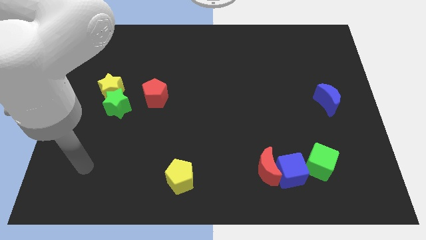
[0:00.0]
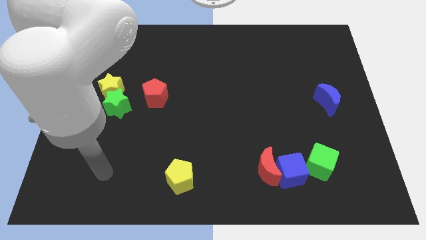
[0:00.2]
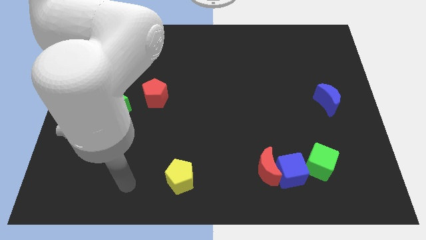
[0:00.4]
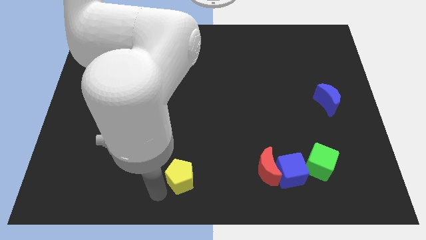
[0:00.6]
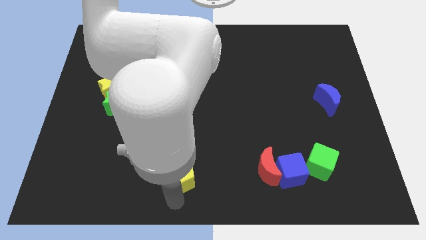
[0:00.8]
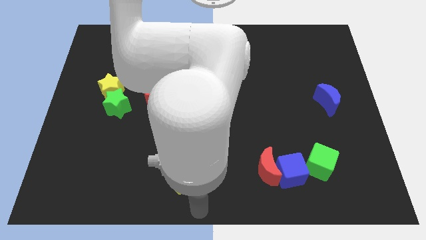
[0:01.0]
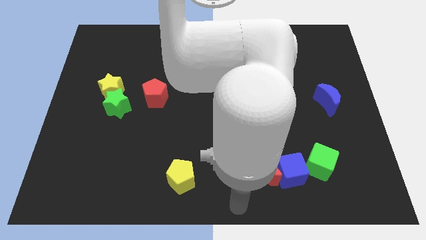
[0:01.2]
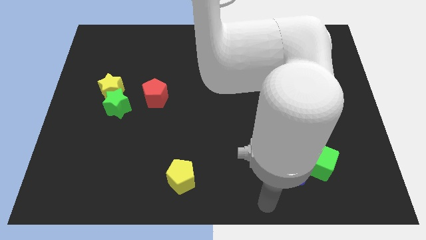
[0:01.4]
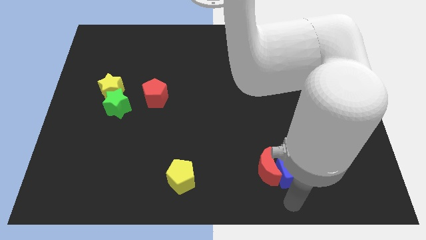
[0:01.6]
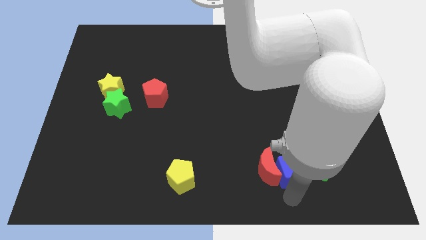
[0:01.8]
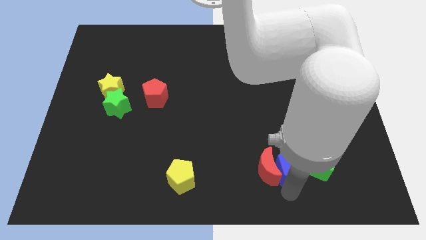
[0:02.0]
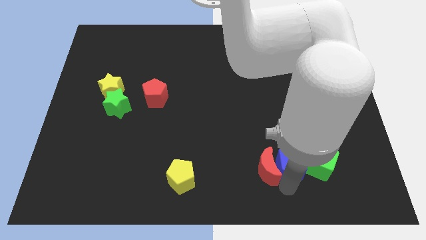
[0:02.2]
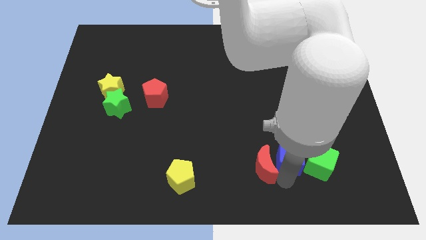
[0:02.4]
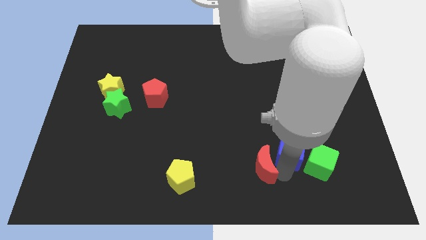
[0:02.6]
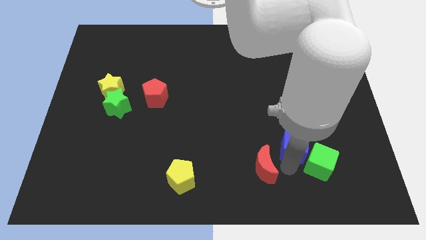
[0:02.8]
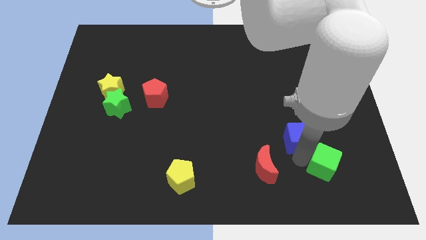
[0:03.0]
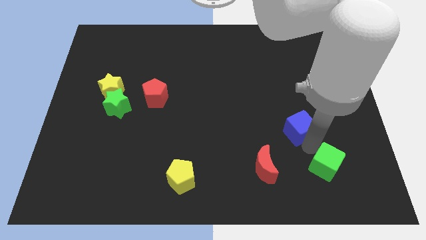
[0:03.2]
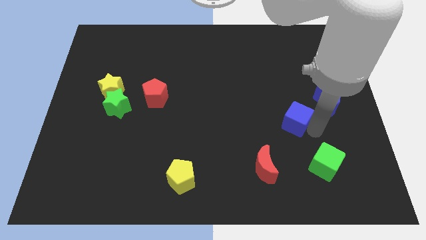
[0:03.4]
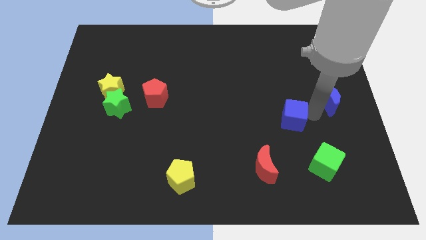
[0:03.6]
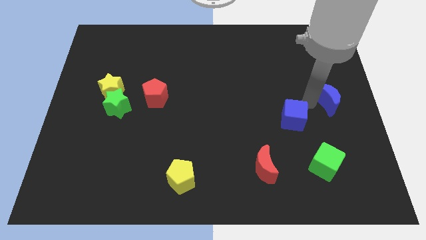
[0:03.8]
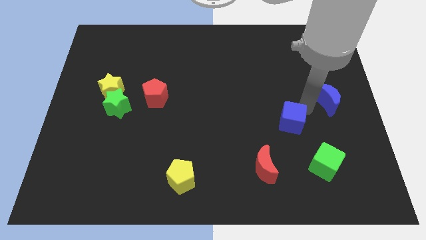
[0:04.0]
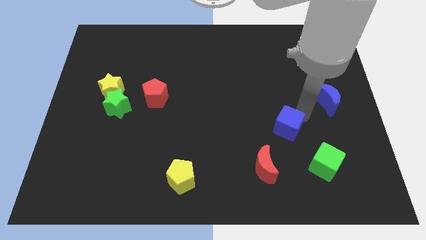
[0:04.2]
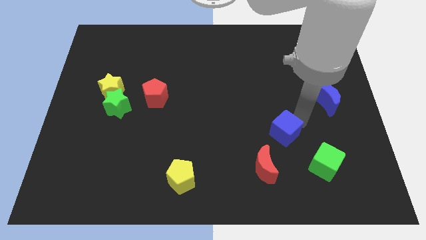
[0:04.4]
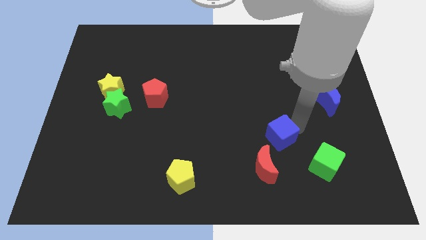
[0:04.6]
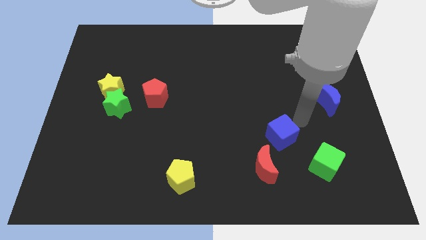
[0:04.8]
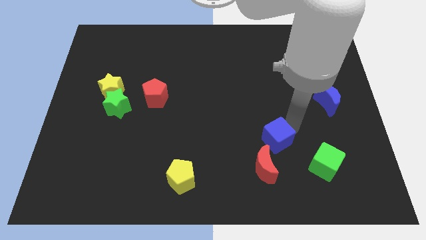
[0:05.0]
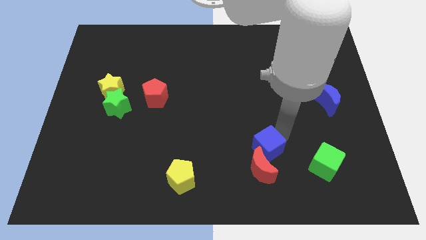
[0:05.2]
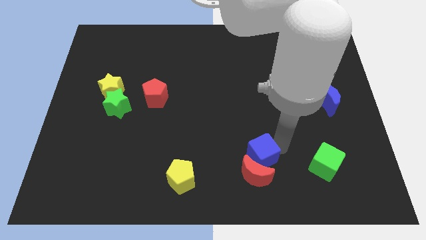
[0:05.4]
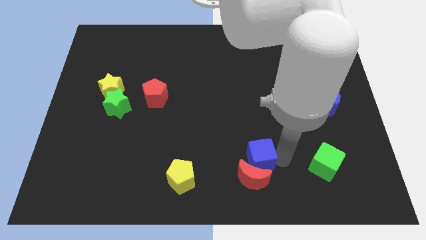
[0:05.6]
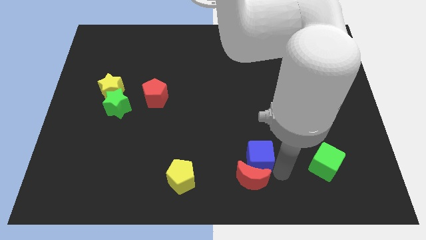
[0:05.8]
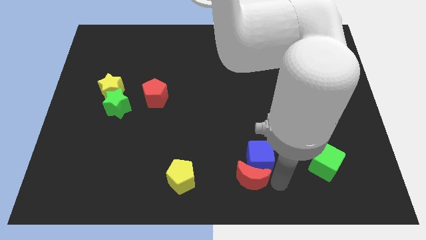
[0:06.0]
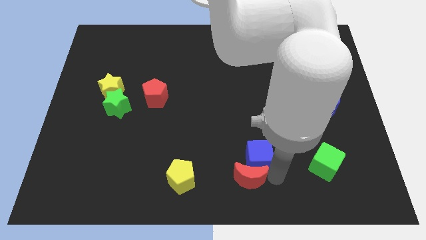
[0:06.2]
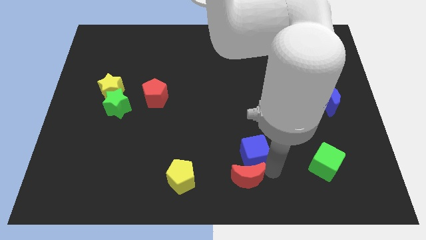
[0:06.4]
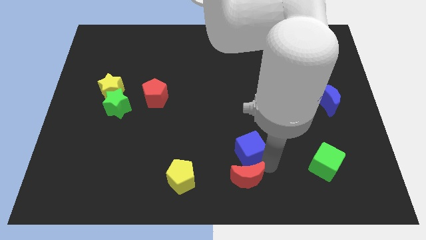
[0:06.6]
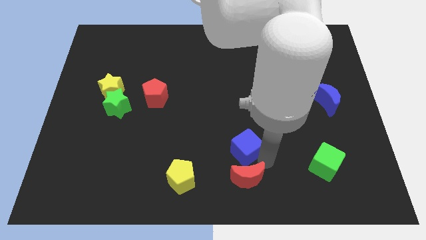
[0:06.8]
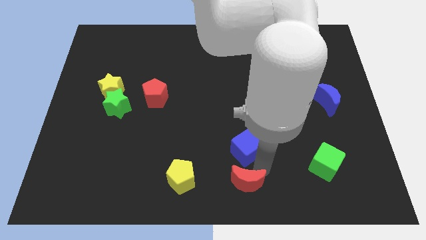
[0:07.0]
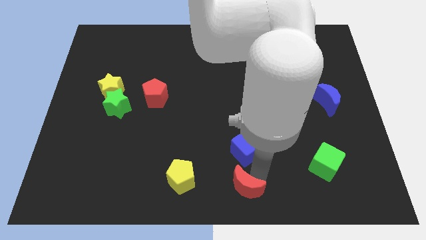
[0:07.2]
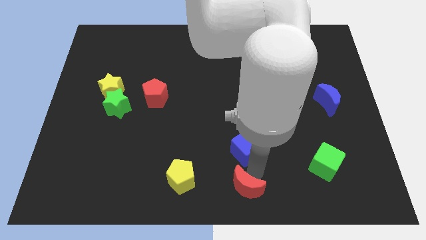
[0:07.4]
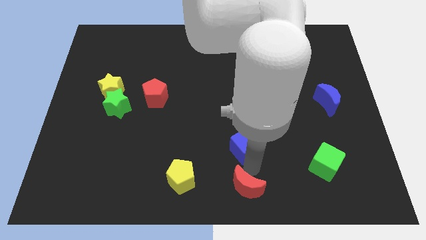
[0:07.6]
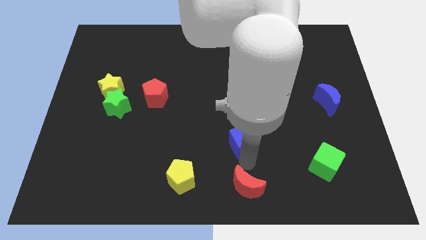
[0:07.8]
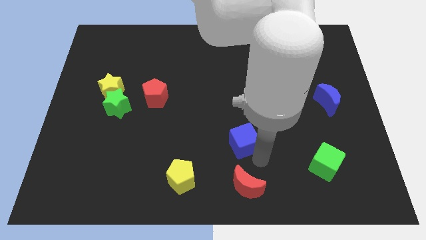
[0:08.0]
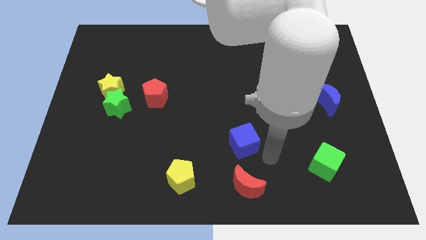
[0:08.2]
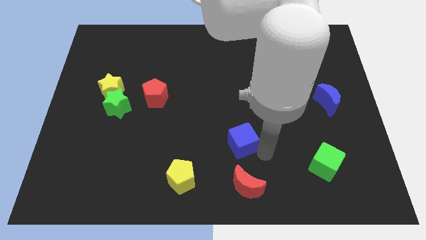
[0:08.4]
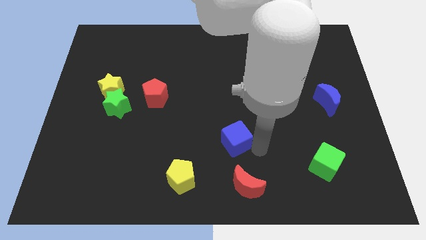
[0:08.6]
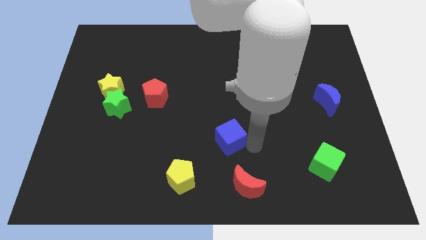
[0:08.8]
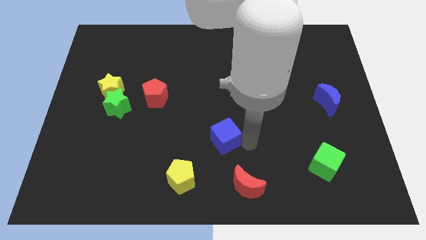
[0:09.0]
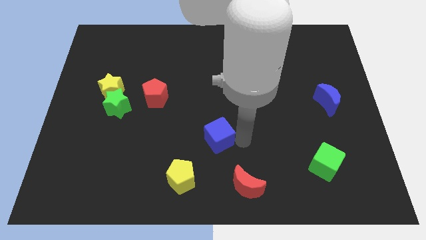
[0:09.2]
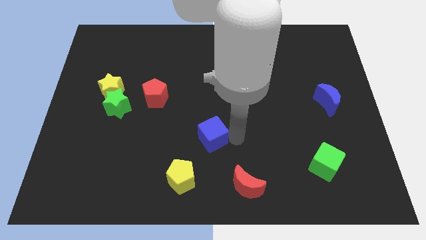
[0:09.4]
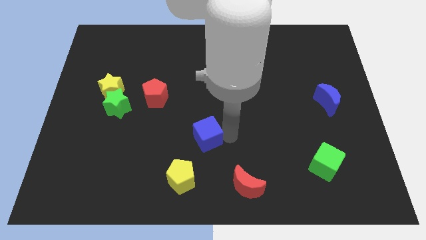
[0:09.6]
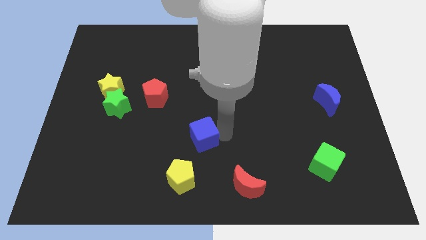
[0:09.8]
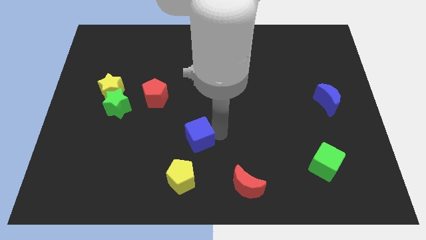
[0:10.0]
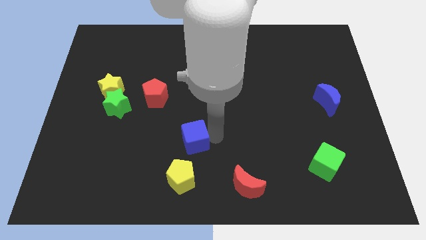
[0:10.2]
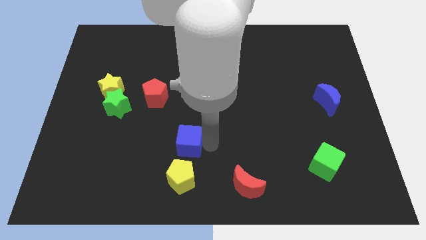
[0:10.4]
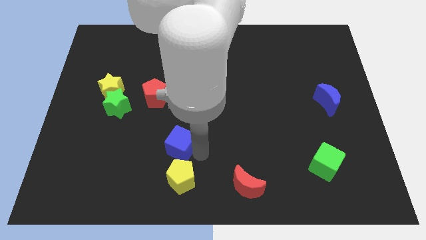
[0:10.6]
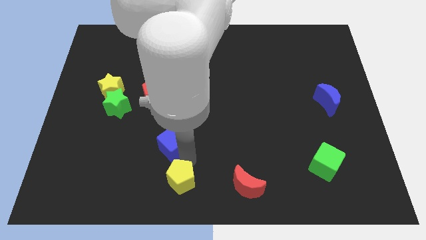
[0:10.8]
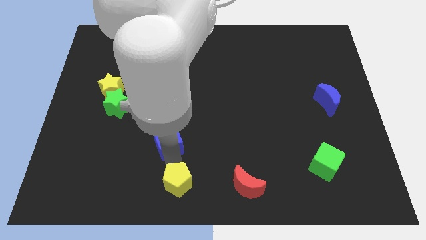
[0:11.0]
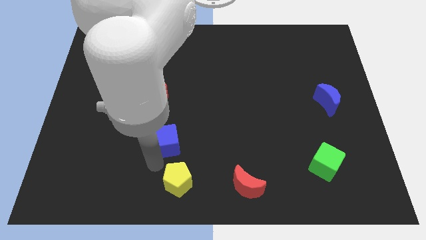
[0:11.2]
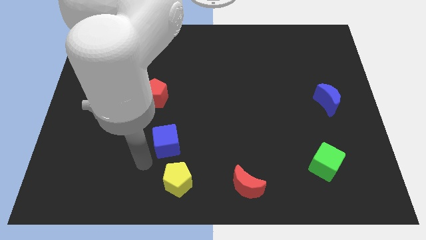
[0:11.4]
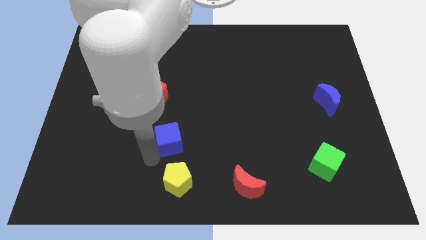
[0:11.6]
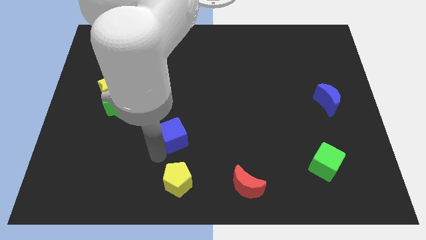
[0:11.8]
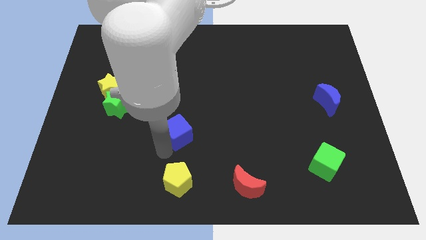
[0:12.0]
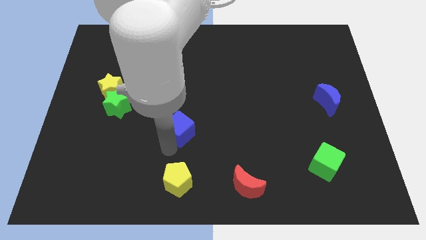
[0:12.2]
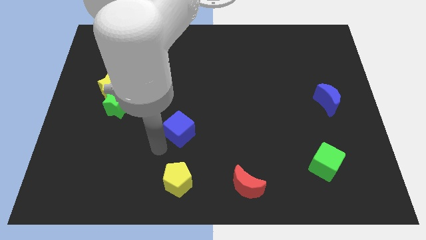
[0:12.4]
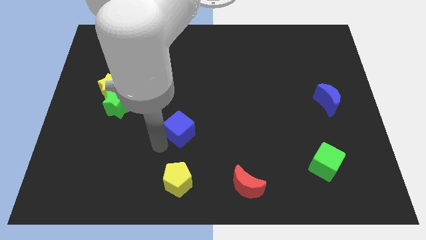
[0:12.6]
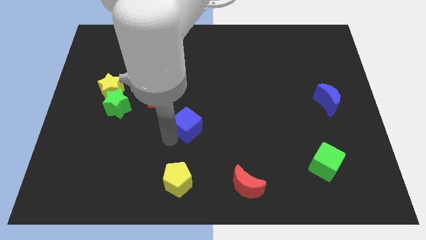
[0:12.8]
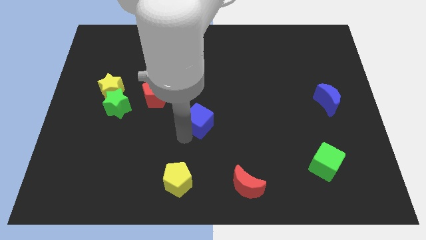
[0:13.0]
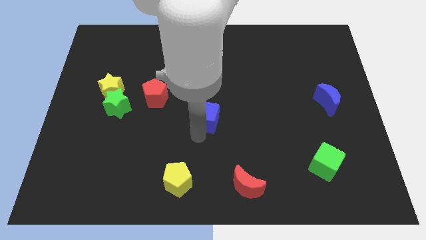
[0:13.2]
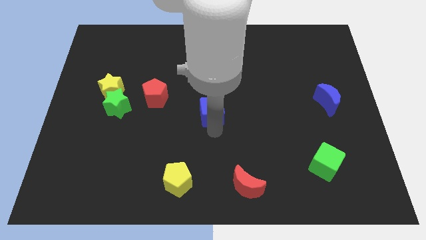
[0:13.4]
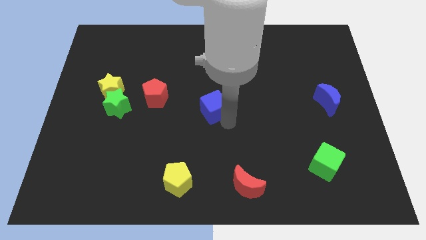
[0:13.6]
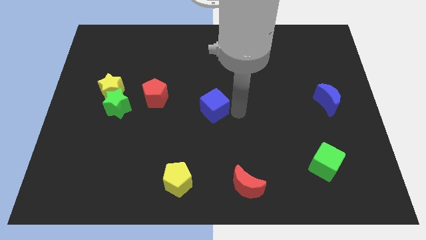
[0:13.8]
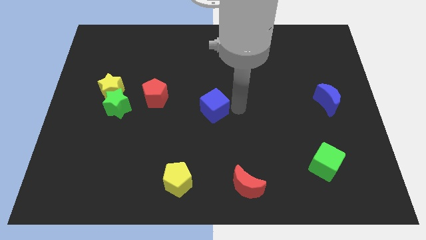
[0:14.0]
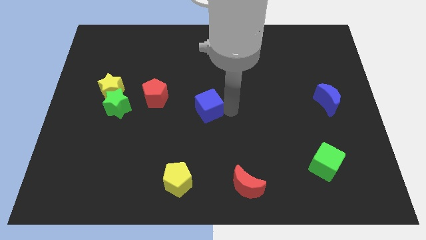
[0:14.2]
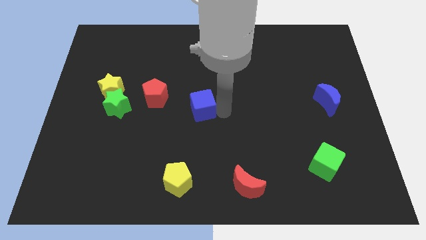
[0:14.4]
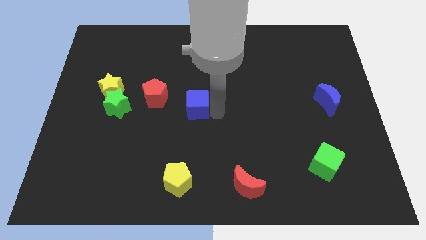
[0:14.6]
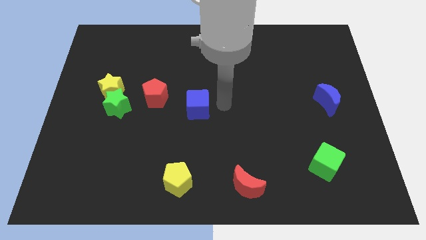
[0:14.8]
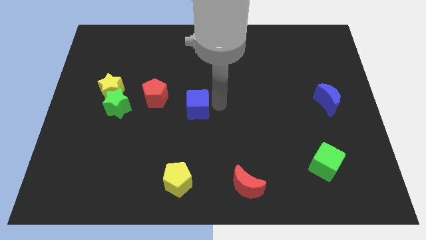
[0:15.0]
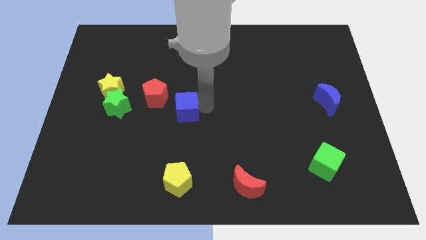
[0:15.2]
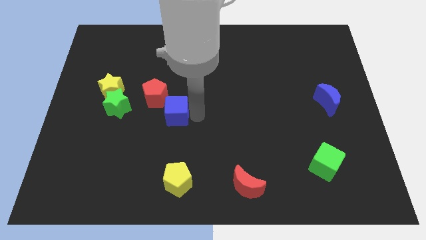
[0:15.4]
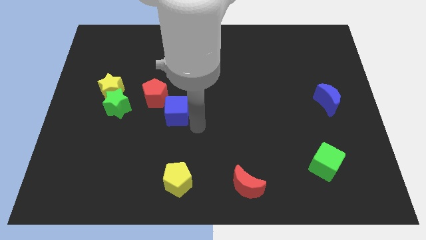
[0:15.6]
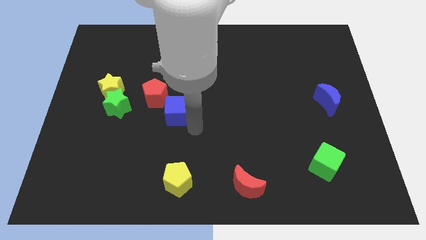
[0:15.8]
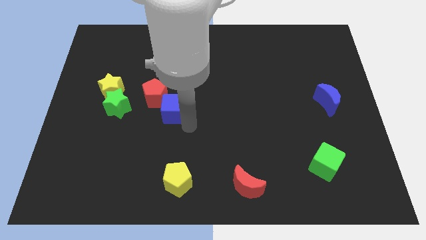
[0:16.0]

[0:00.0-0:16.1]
push the blue cube towards the red pentagon
